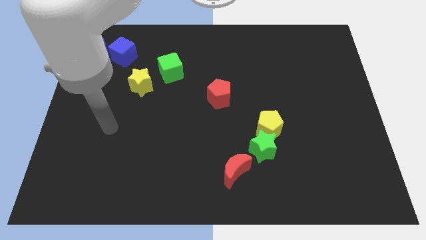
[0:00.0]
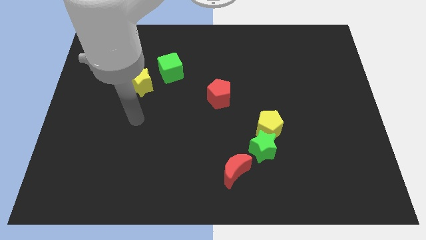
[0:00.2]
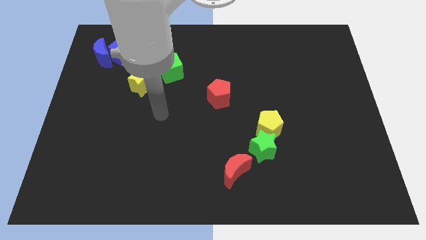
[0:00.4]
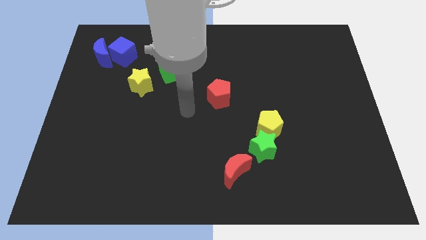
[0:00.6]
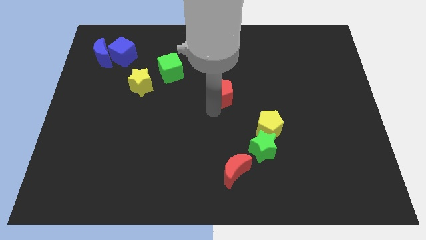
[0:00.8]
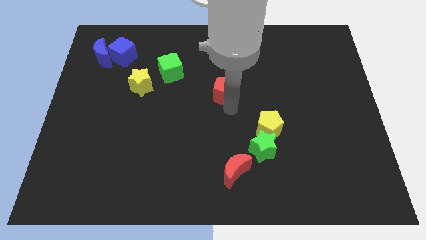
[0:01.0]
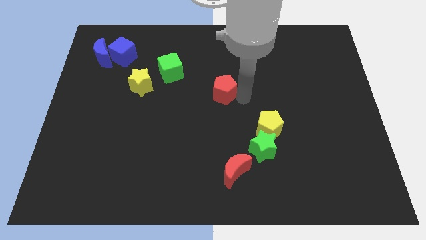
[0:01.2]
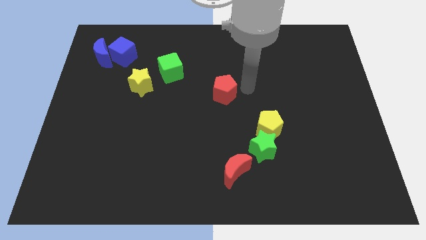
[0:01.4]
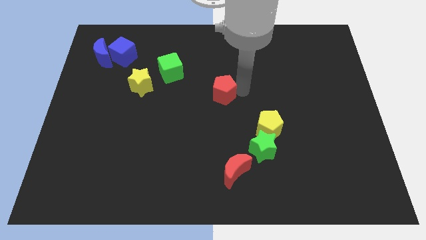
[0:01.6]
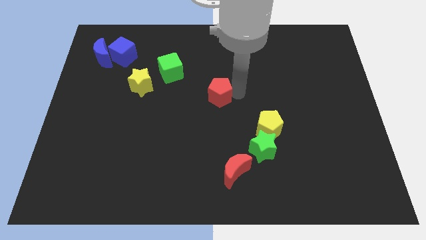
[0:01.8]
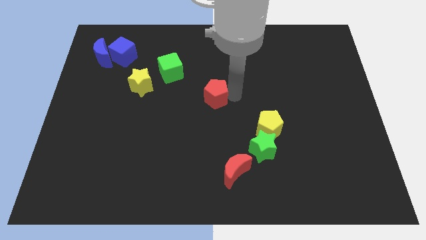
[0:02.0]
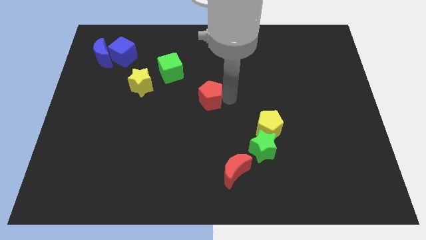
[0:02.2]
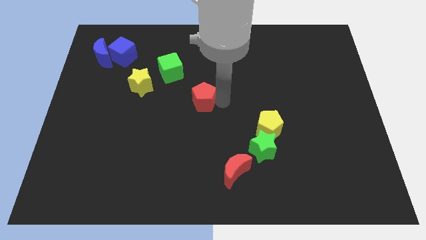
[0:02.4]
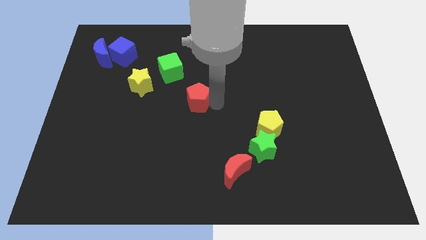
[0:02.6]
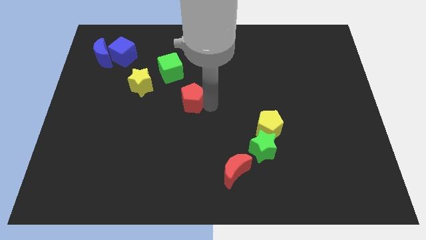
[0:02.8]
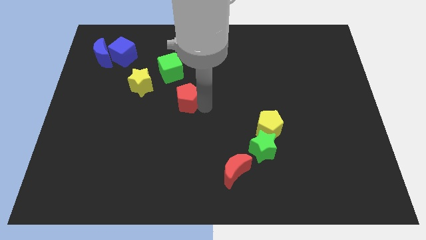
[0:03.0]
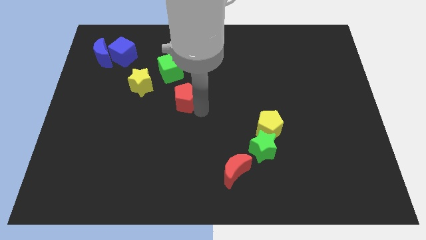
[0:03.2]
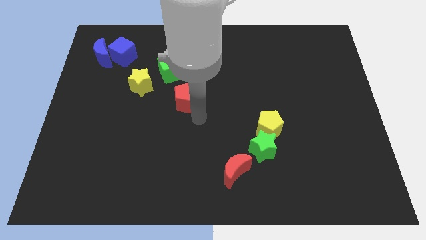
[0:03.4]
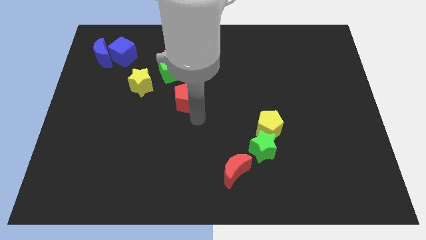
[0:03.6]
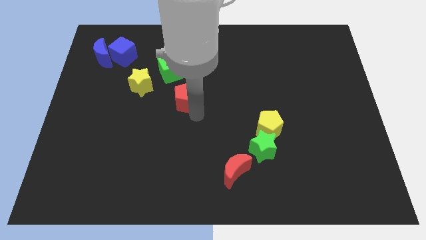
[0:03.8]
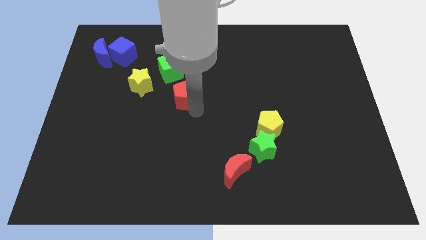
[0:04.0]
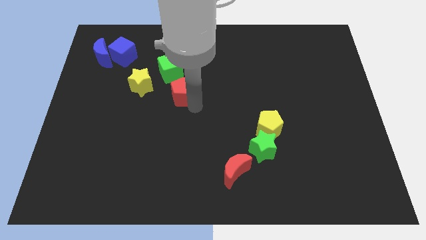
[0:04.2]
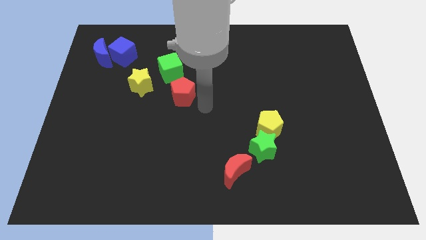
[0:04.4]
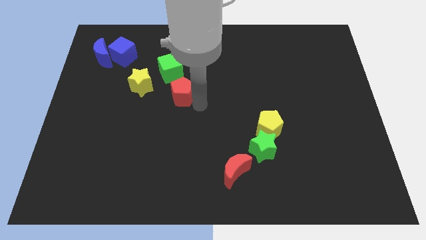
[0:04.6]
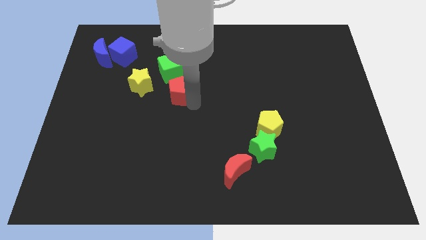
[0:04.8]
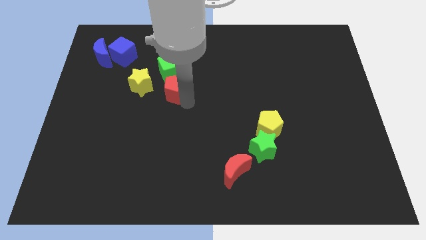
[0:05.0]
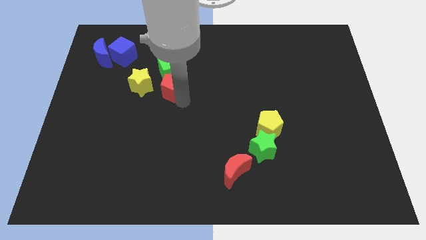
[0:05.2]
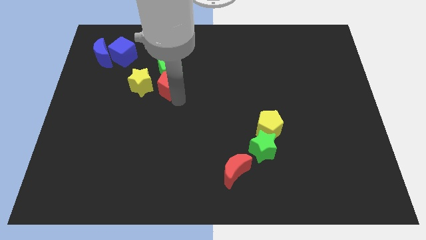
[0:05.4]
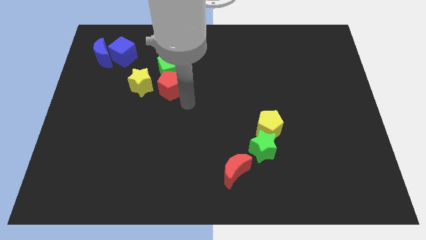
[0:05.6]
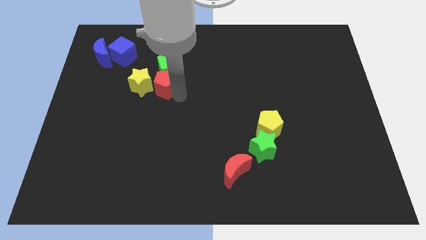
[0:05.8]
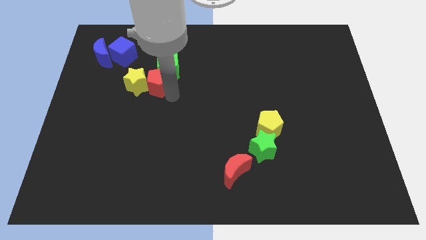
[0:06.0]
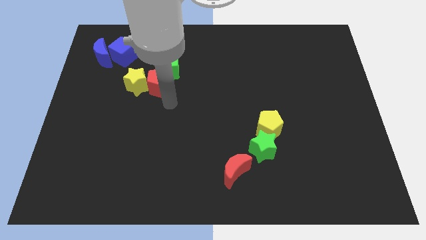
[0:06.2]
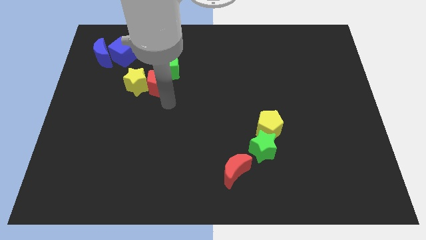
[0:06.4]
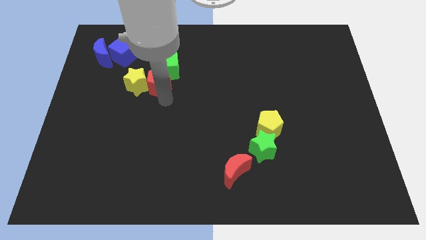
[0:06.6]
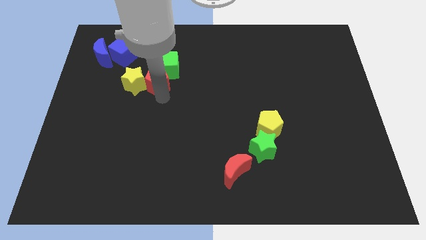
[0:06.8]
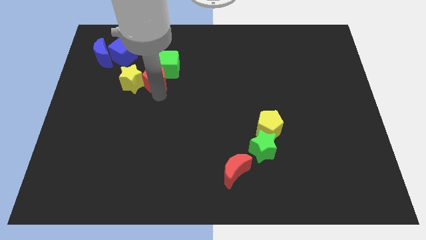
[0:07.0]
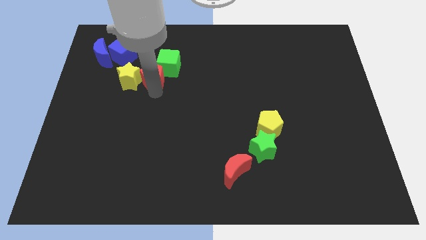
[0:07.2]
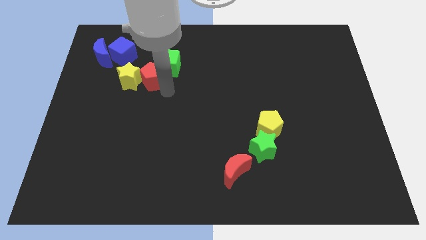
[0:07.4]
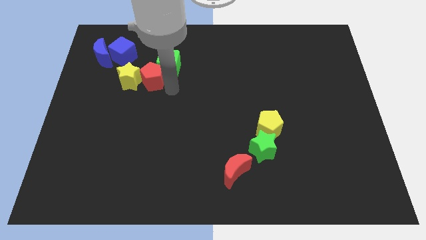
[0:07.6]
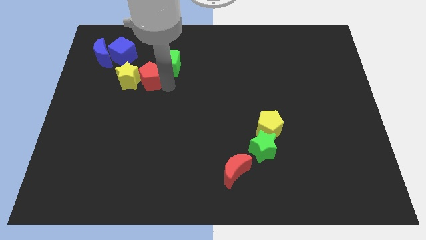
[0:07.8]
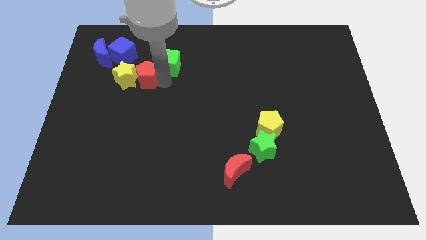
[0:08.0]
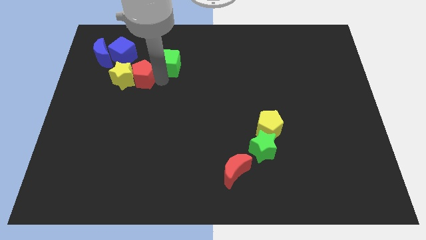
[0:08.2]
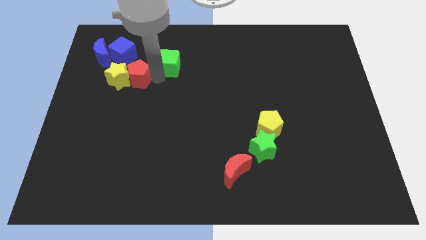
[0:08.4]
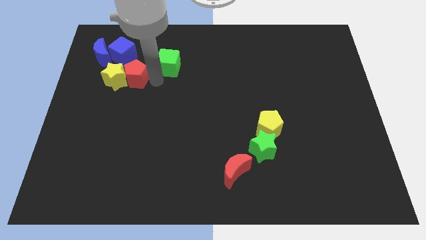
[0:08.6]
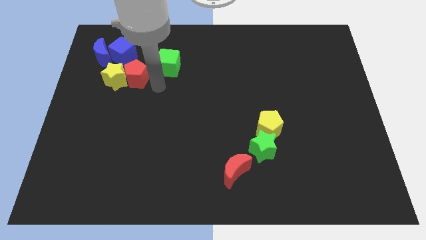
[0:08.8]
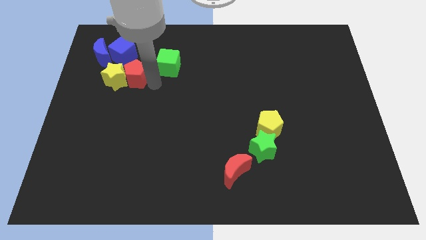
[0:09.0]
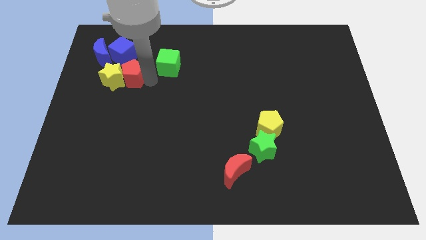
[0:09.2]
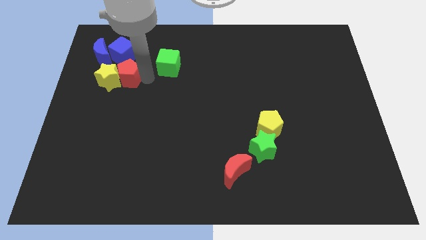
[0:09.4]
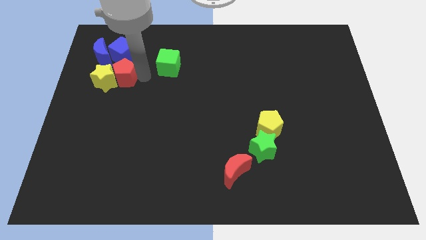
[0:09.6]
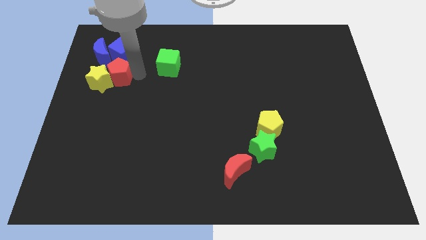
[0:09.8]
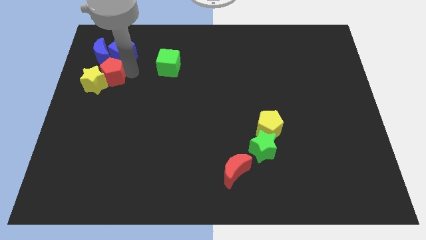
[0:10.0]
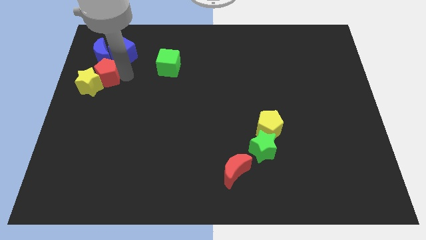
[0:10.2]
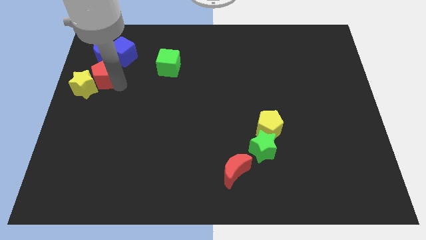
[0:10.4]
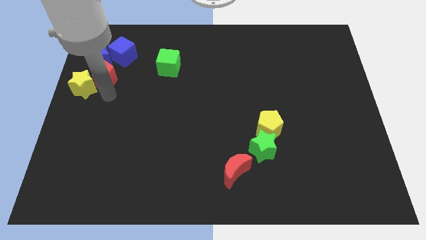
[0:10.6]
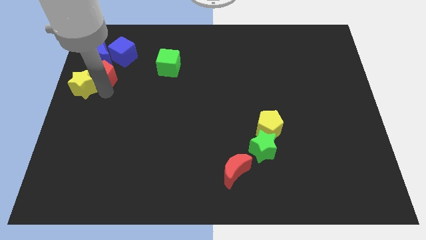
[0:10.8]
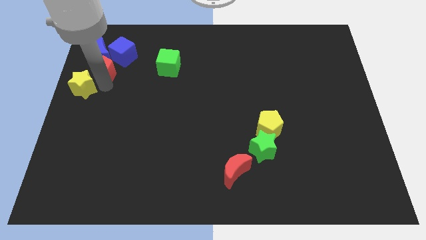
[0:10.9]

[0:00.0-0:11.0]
move the red pentagon to the blue moon

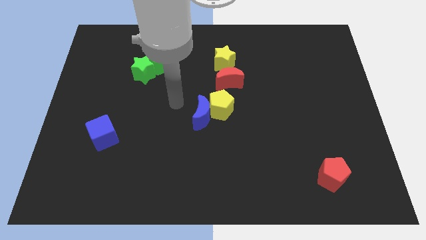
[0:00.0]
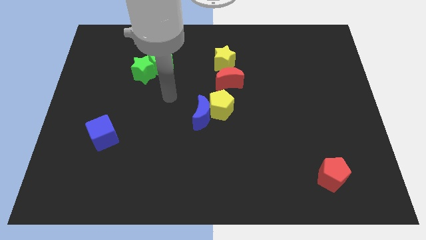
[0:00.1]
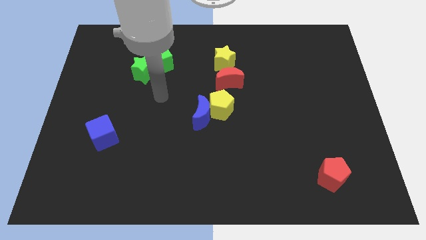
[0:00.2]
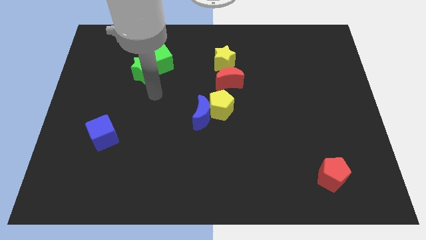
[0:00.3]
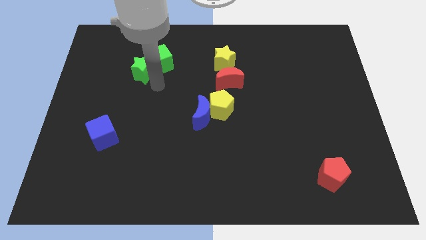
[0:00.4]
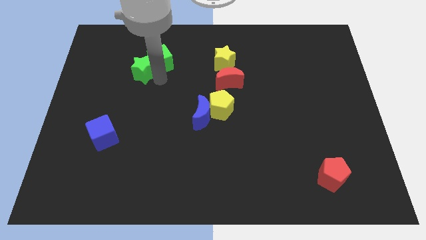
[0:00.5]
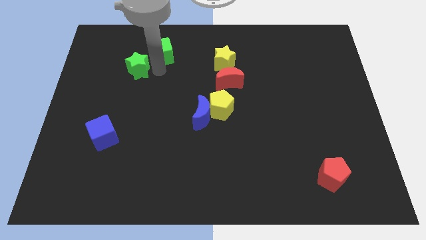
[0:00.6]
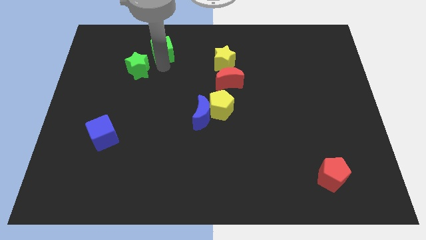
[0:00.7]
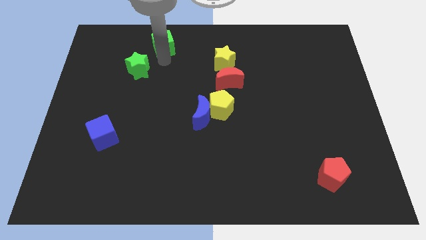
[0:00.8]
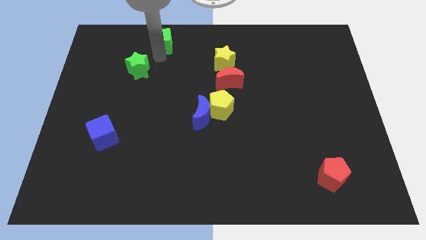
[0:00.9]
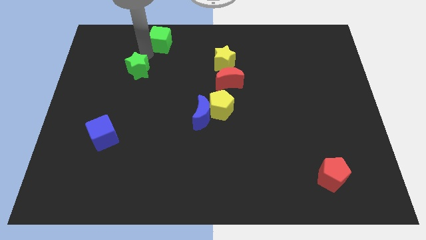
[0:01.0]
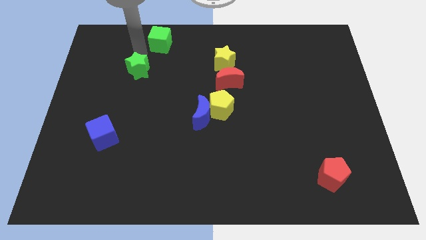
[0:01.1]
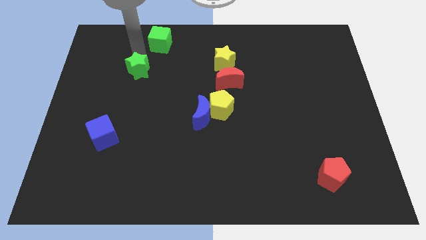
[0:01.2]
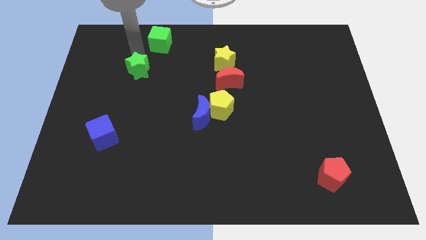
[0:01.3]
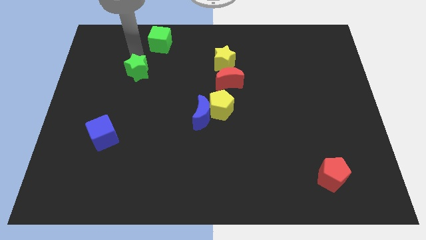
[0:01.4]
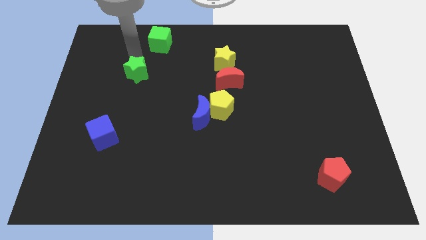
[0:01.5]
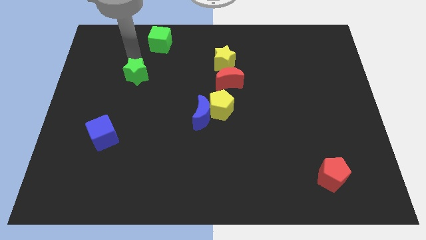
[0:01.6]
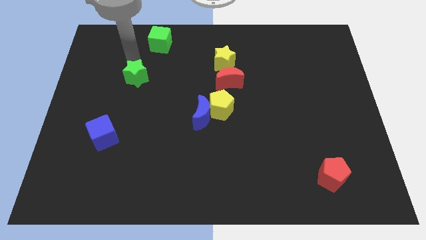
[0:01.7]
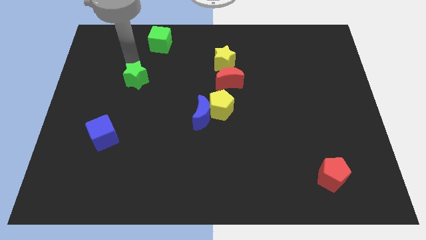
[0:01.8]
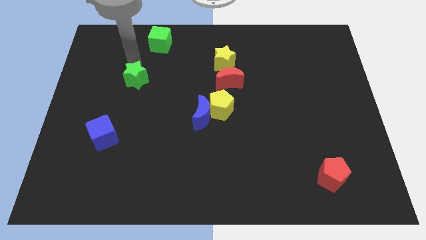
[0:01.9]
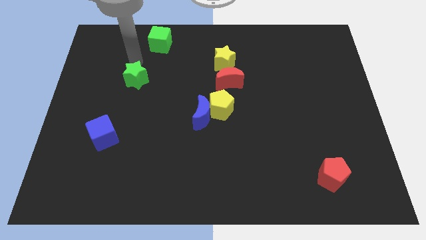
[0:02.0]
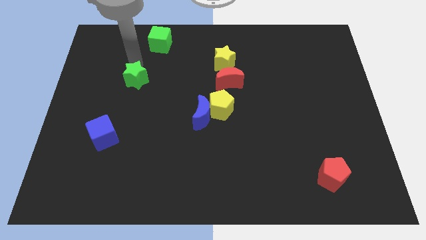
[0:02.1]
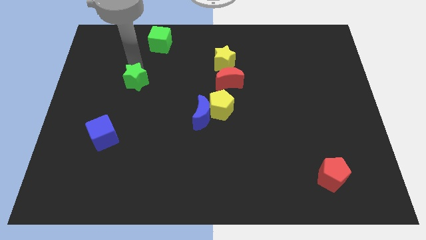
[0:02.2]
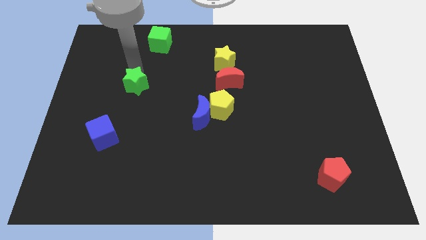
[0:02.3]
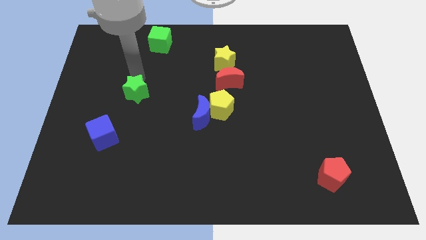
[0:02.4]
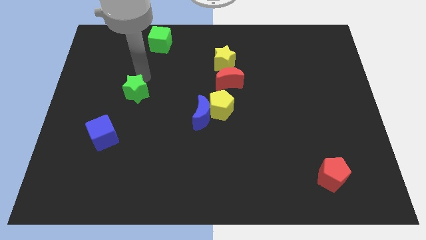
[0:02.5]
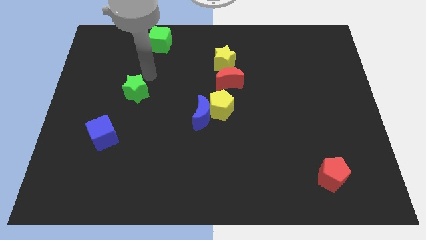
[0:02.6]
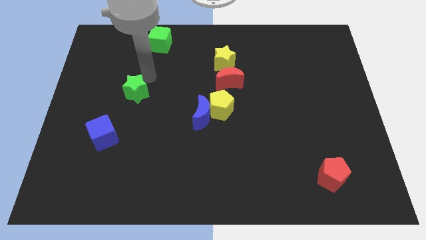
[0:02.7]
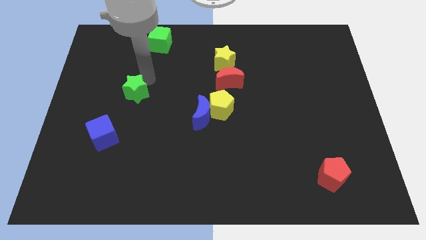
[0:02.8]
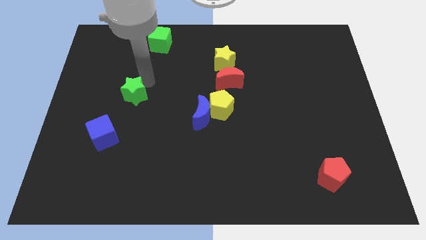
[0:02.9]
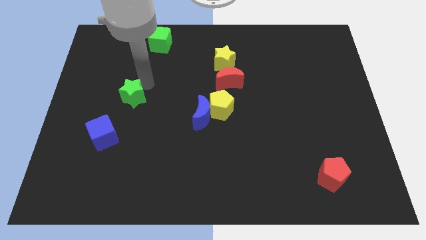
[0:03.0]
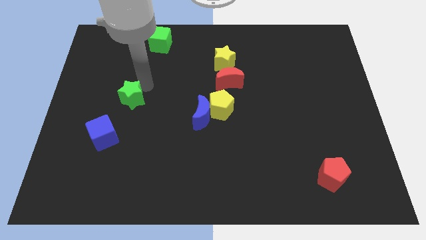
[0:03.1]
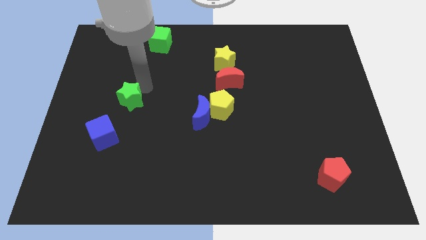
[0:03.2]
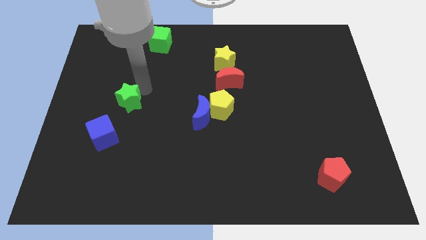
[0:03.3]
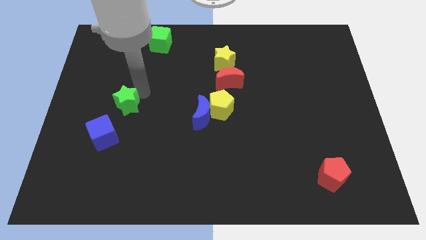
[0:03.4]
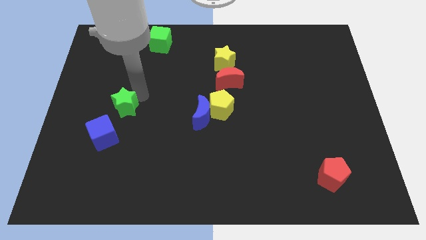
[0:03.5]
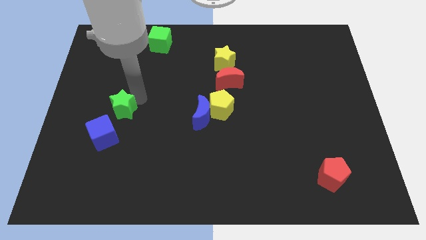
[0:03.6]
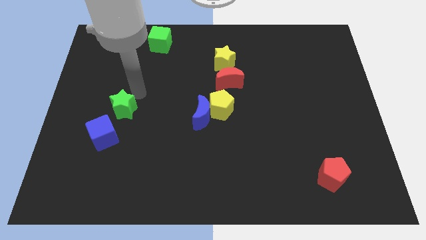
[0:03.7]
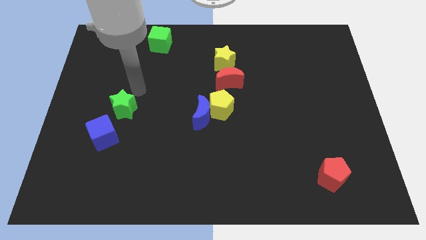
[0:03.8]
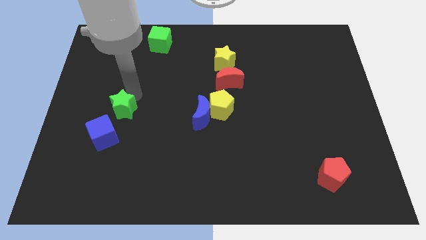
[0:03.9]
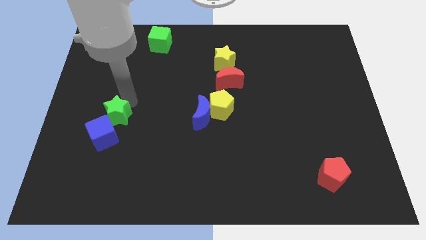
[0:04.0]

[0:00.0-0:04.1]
slide the green star next to the blue cube
